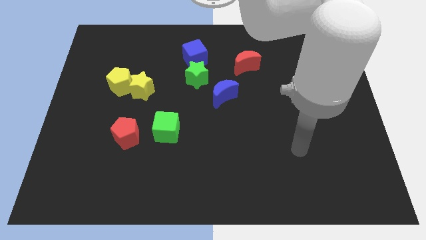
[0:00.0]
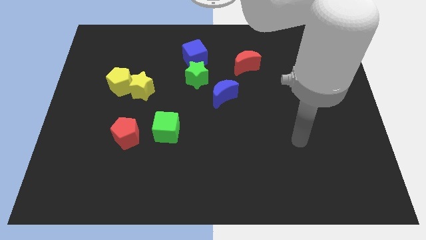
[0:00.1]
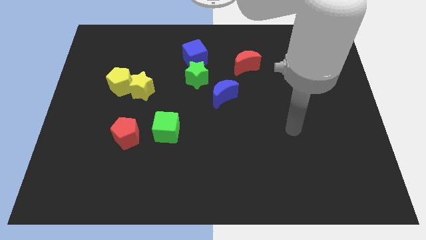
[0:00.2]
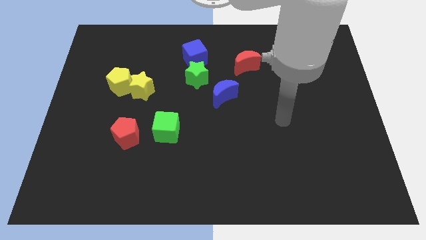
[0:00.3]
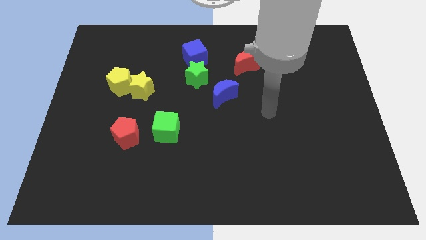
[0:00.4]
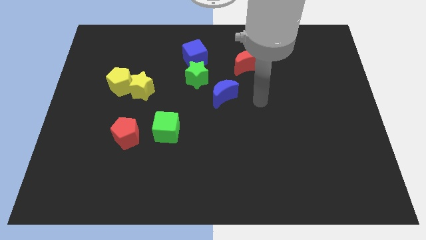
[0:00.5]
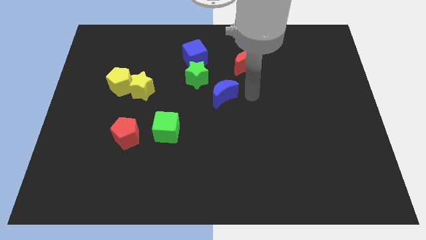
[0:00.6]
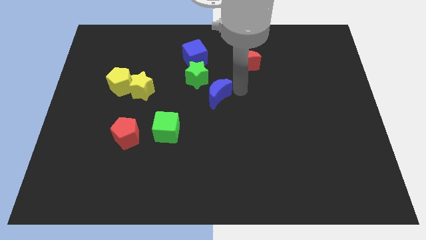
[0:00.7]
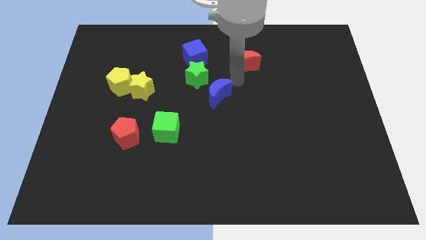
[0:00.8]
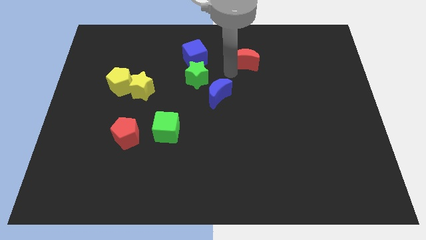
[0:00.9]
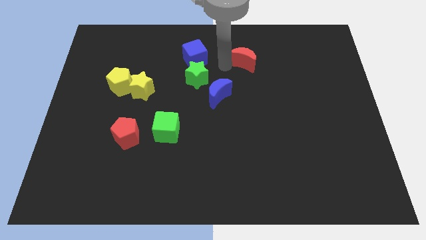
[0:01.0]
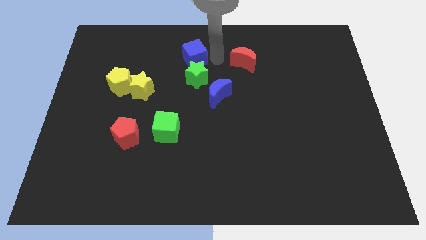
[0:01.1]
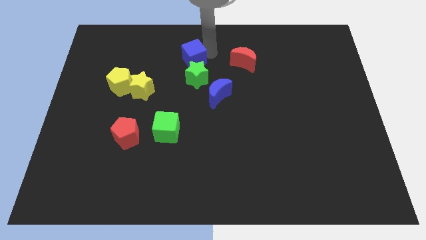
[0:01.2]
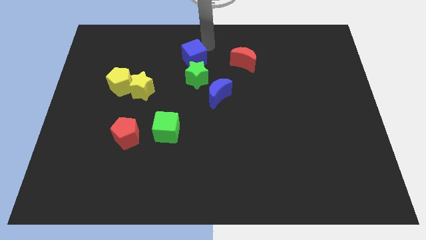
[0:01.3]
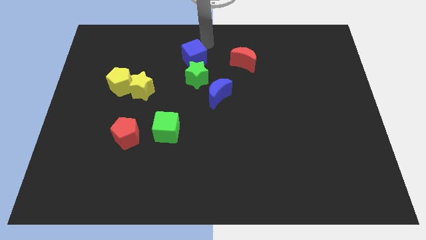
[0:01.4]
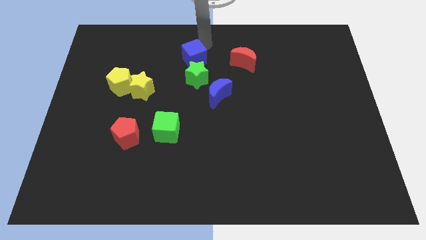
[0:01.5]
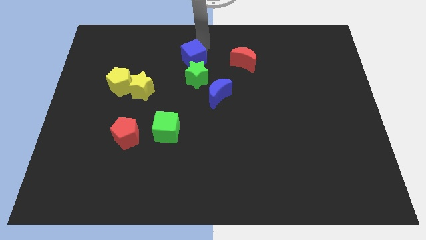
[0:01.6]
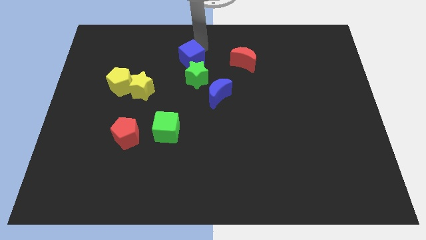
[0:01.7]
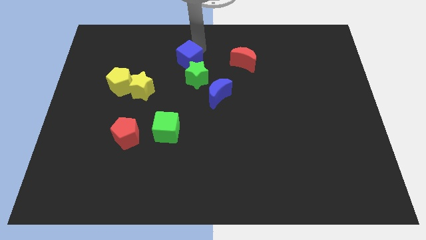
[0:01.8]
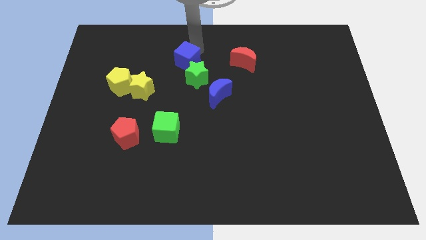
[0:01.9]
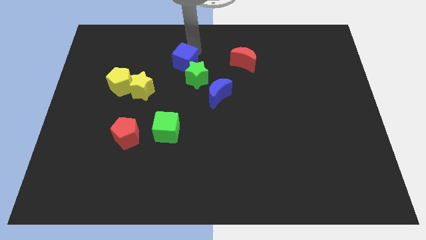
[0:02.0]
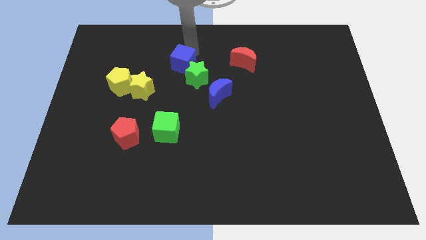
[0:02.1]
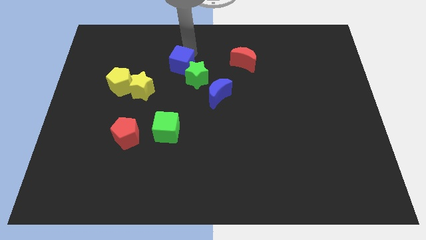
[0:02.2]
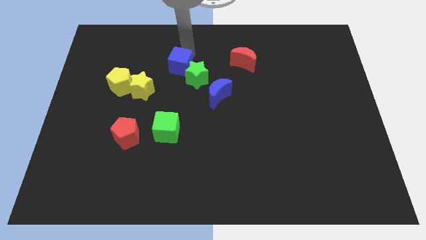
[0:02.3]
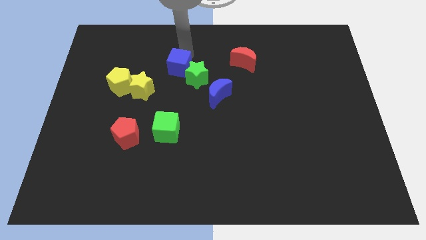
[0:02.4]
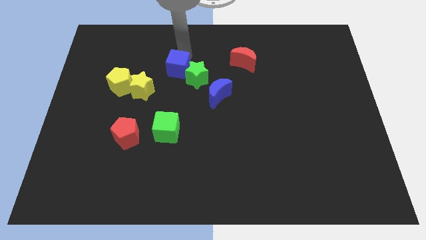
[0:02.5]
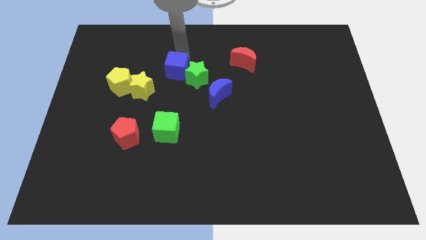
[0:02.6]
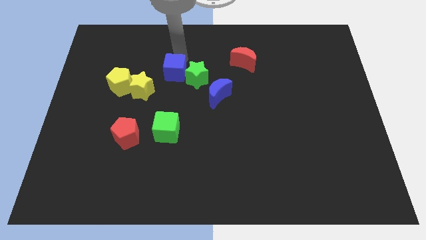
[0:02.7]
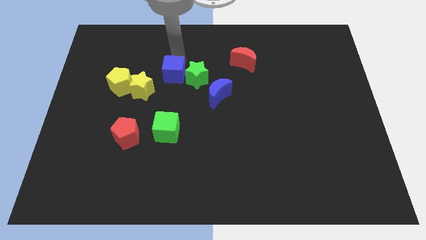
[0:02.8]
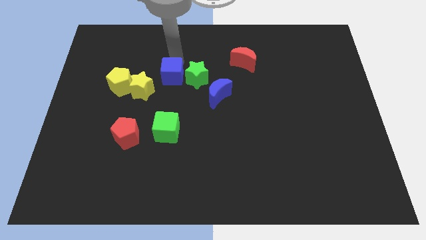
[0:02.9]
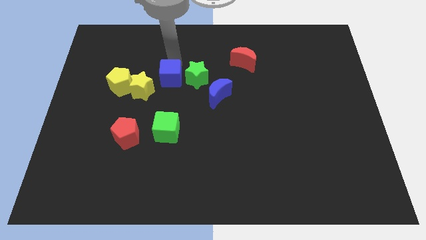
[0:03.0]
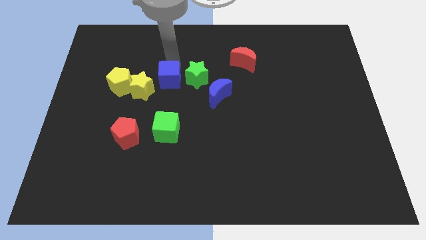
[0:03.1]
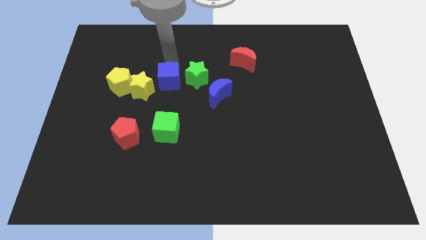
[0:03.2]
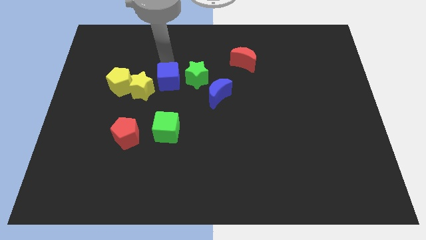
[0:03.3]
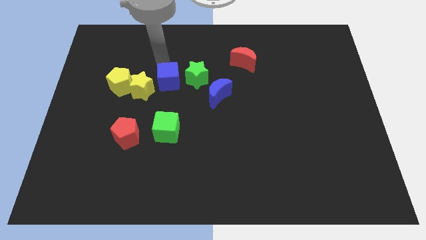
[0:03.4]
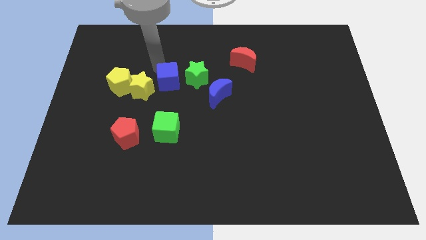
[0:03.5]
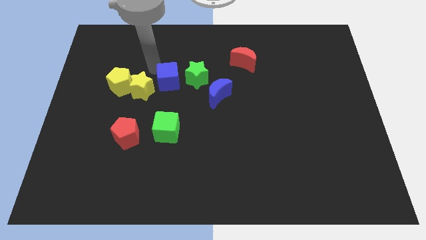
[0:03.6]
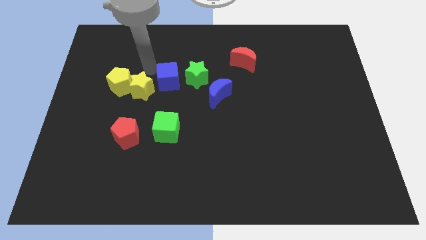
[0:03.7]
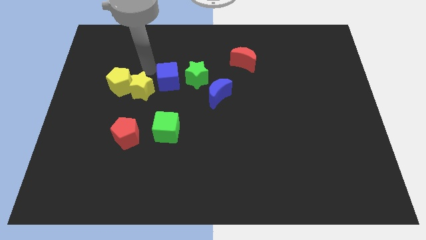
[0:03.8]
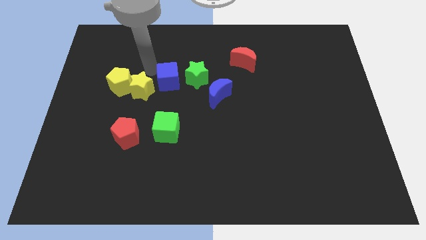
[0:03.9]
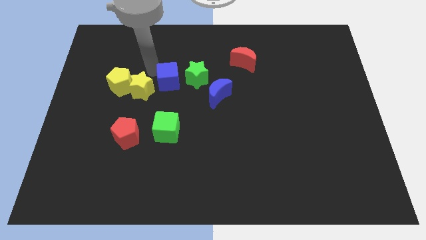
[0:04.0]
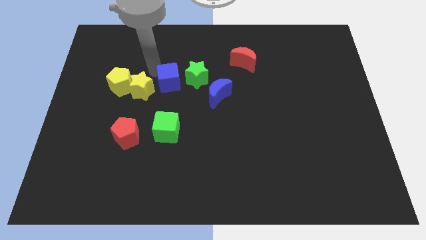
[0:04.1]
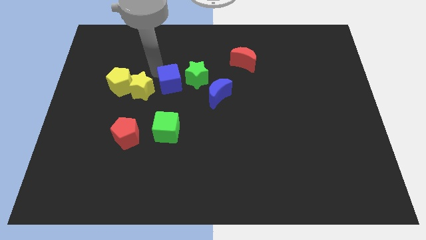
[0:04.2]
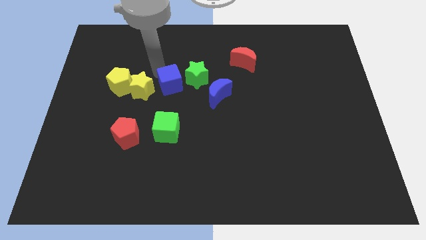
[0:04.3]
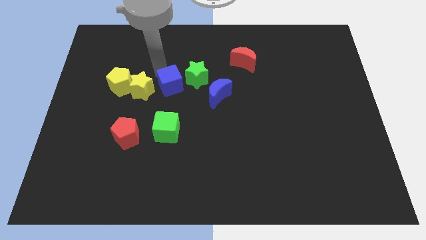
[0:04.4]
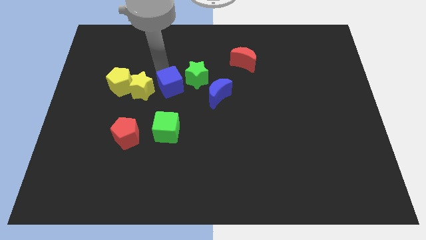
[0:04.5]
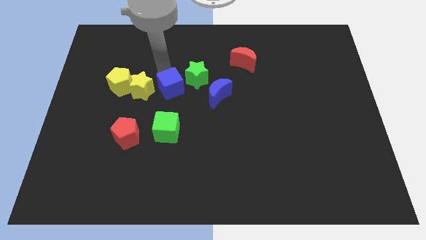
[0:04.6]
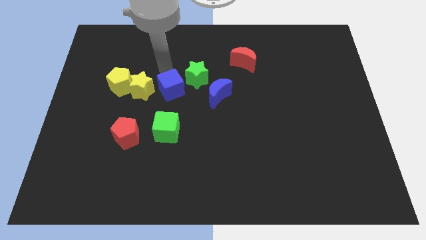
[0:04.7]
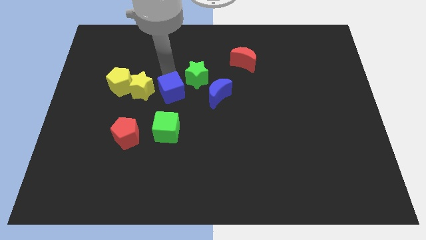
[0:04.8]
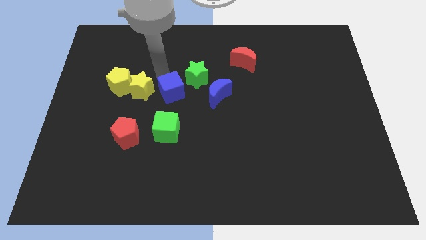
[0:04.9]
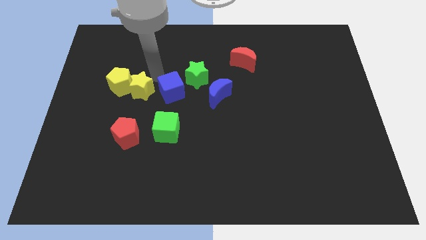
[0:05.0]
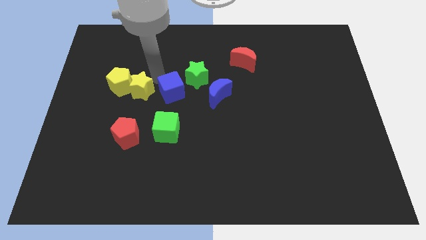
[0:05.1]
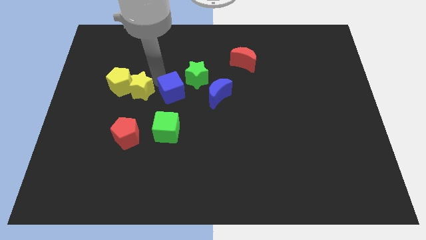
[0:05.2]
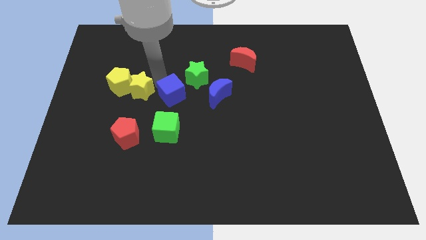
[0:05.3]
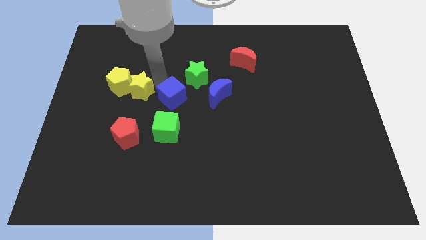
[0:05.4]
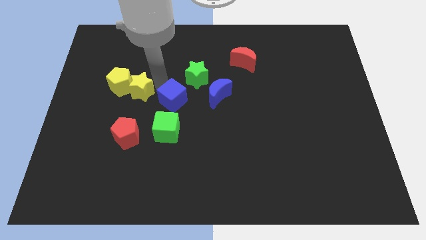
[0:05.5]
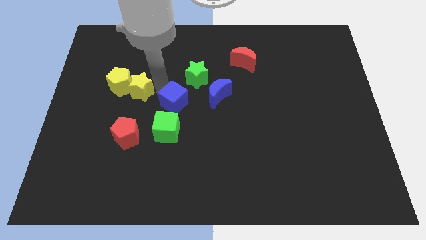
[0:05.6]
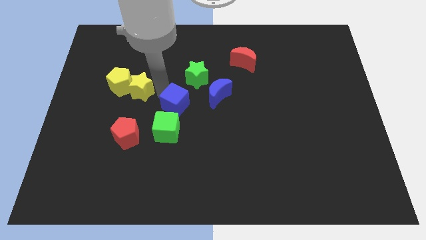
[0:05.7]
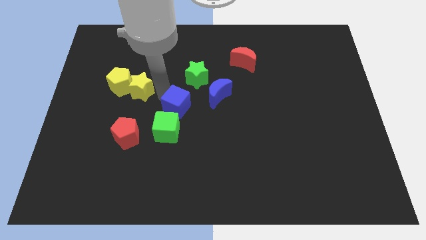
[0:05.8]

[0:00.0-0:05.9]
move the blue cube diagonally down and to the left of the blue moon
